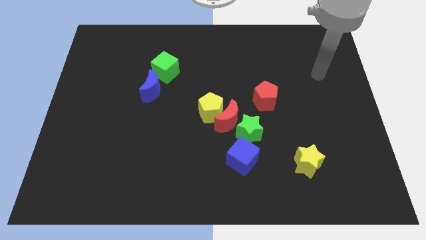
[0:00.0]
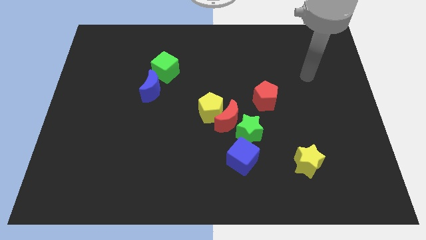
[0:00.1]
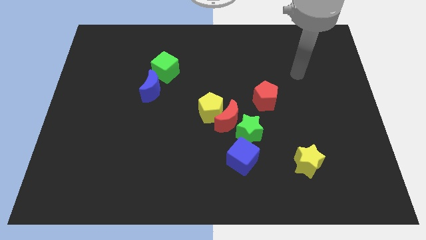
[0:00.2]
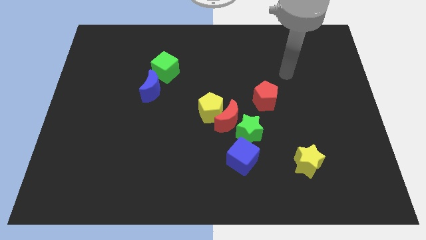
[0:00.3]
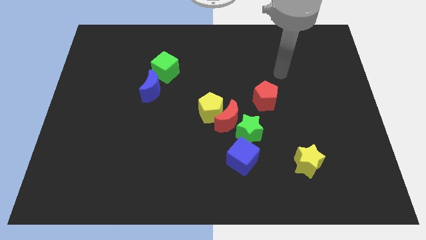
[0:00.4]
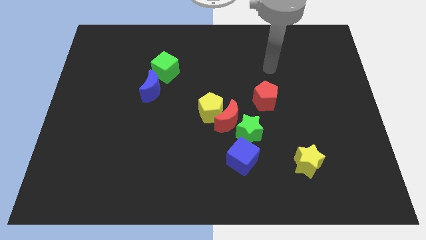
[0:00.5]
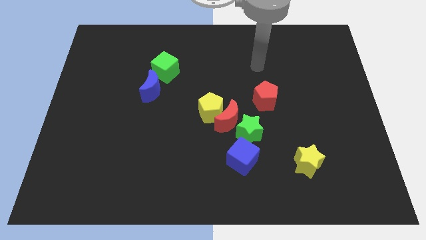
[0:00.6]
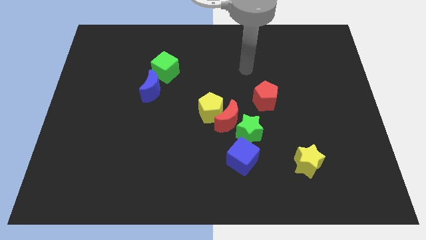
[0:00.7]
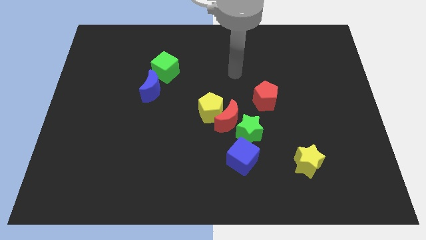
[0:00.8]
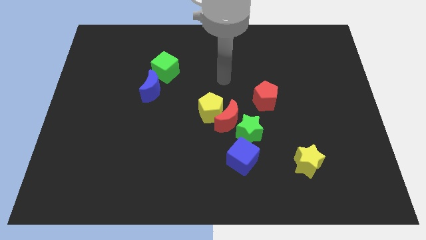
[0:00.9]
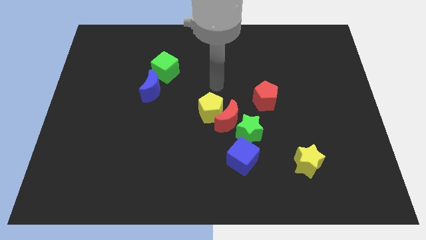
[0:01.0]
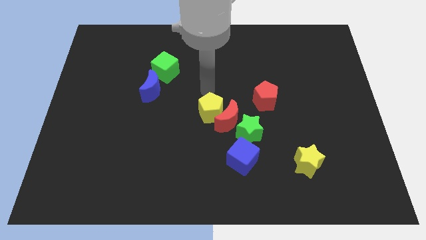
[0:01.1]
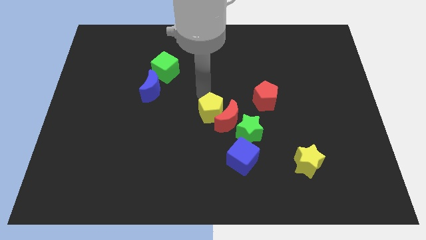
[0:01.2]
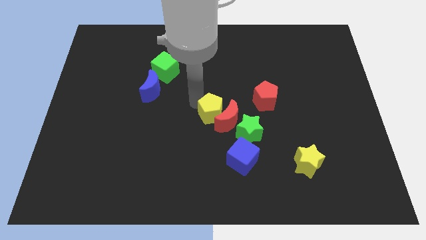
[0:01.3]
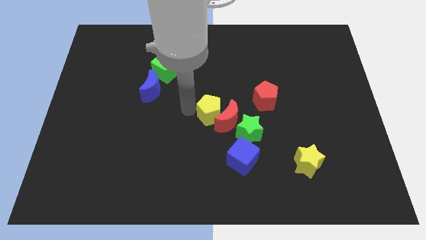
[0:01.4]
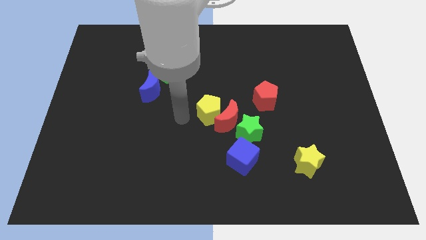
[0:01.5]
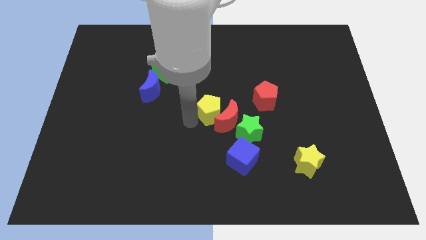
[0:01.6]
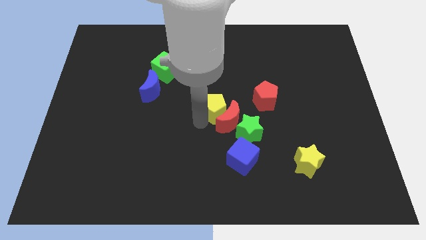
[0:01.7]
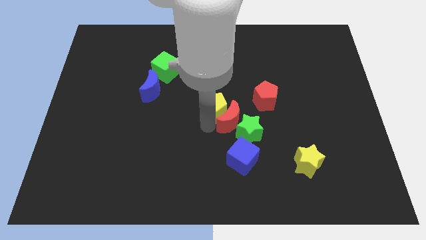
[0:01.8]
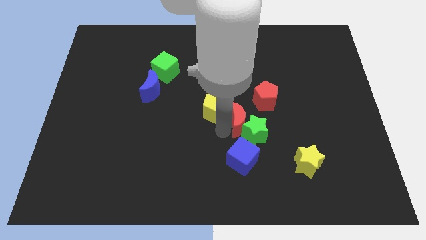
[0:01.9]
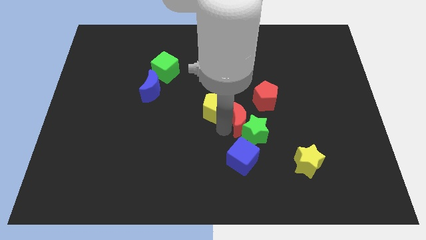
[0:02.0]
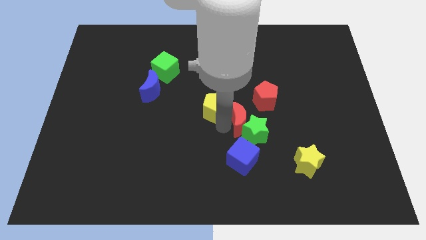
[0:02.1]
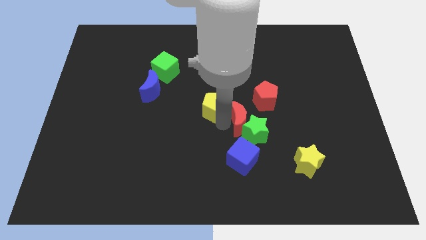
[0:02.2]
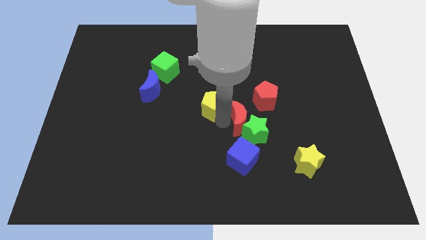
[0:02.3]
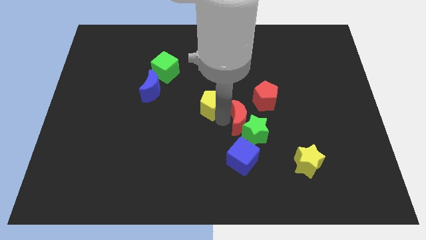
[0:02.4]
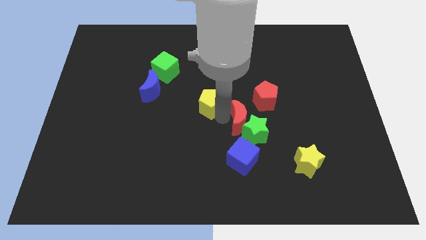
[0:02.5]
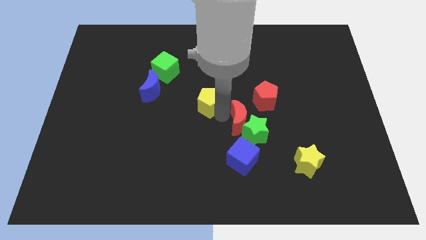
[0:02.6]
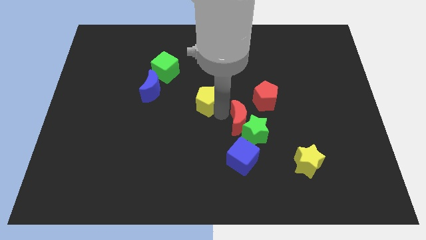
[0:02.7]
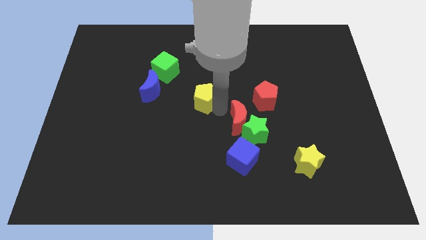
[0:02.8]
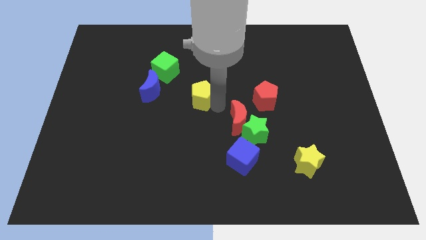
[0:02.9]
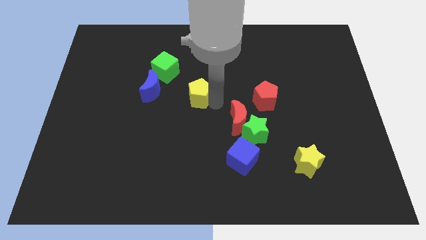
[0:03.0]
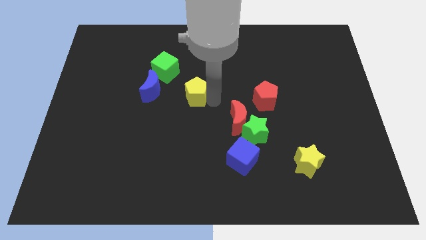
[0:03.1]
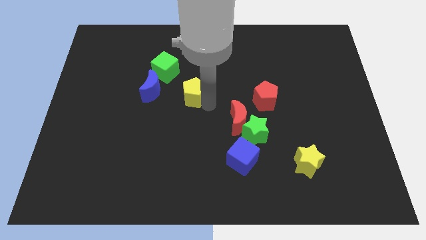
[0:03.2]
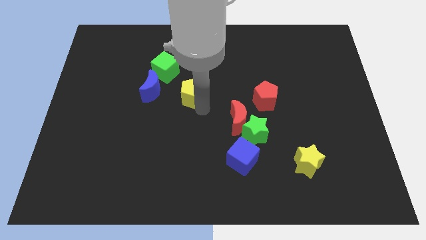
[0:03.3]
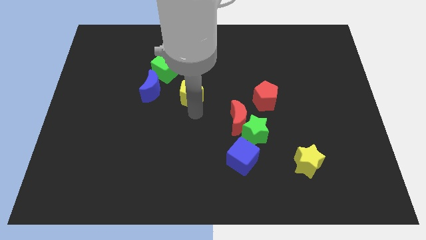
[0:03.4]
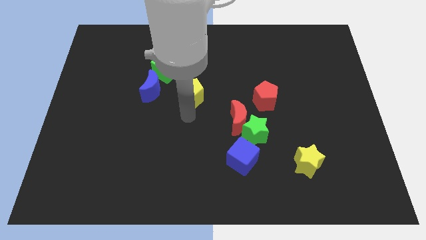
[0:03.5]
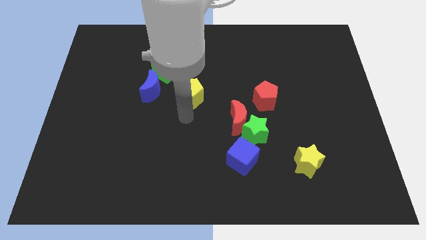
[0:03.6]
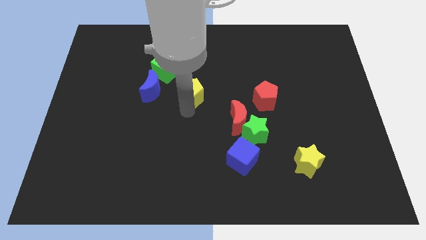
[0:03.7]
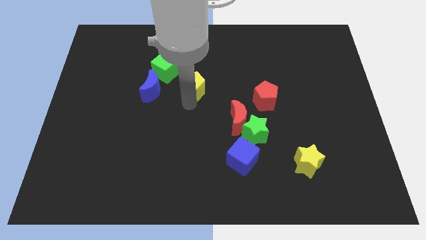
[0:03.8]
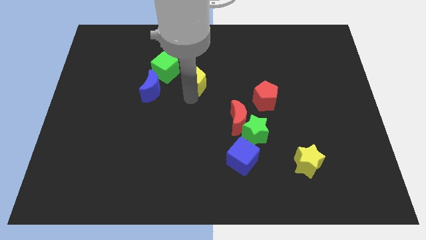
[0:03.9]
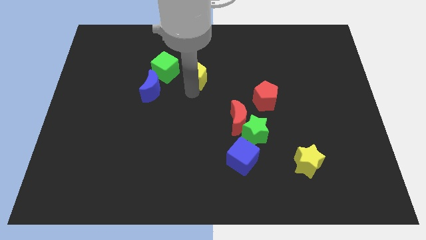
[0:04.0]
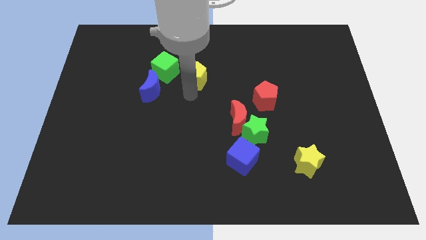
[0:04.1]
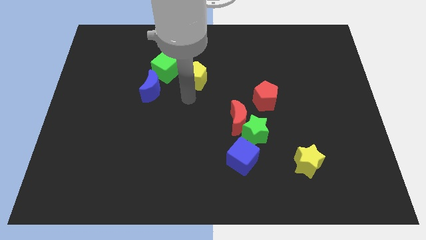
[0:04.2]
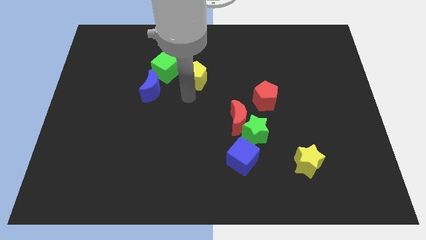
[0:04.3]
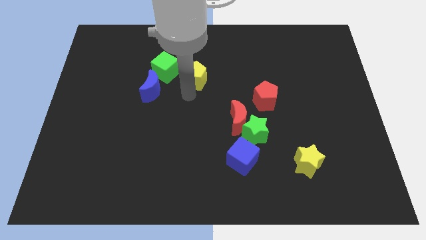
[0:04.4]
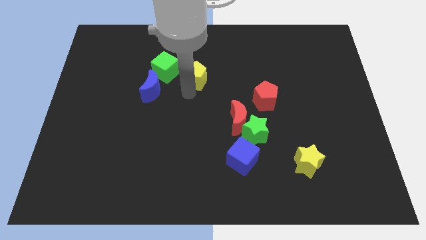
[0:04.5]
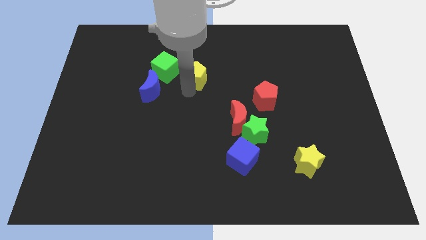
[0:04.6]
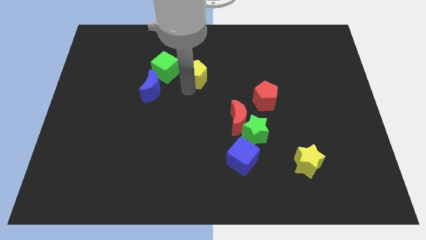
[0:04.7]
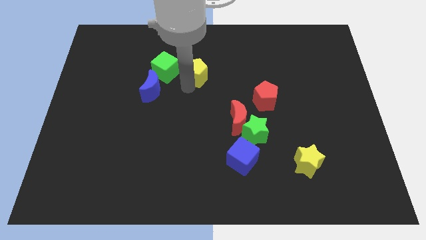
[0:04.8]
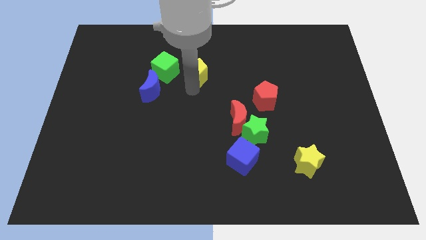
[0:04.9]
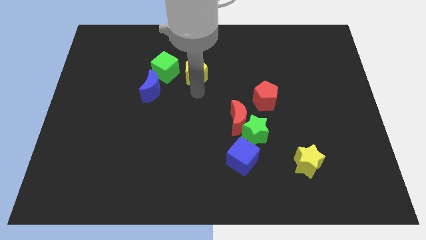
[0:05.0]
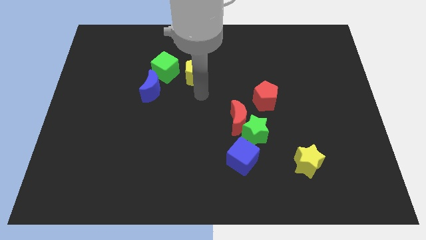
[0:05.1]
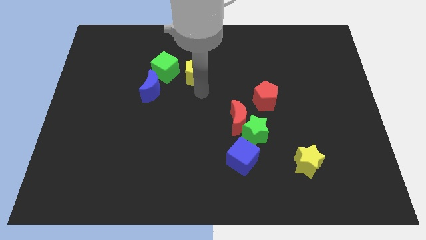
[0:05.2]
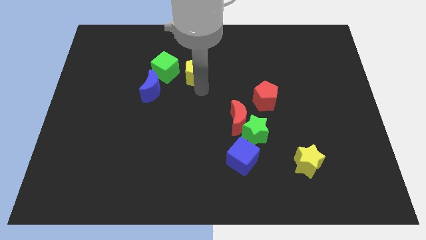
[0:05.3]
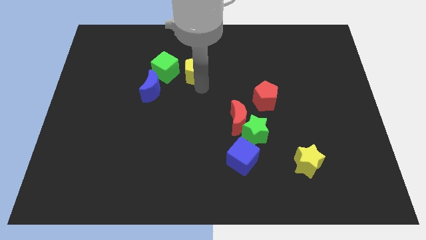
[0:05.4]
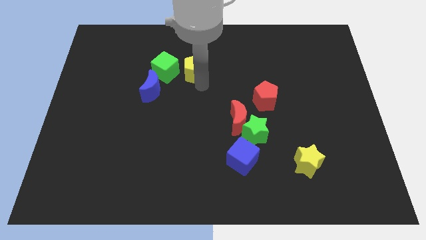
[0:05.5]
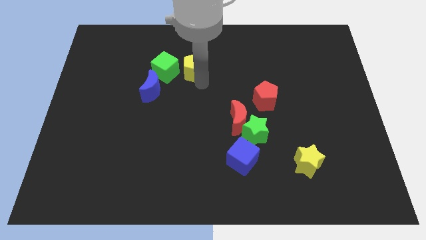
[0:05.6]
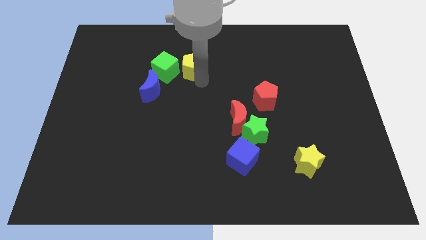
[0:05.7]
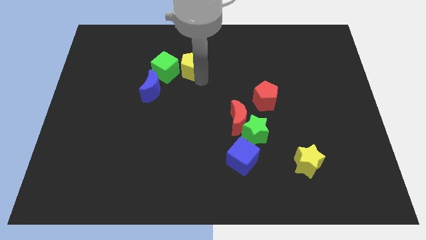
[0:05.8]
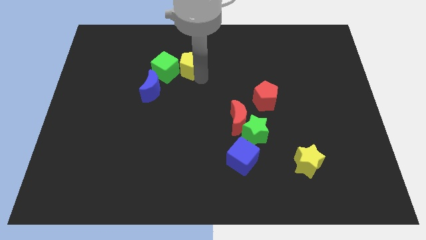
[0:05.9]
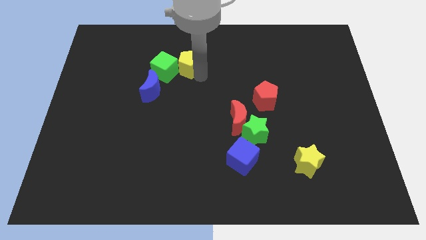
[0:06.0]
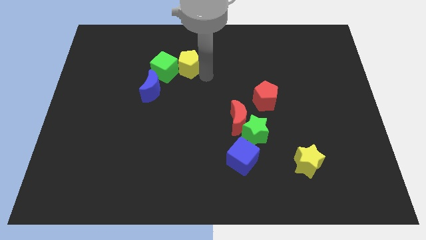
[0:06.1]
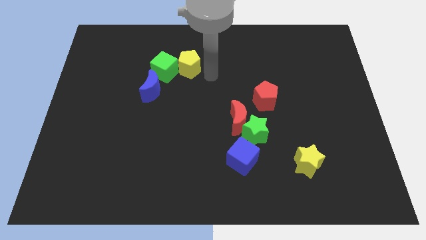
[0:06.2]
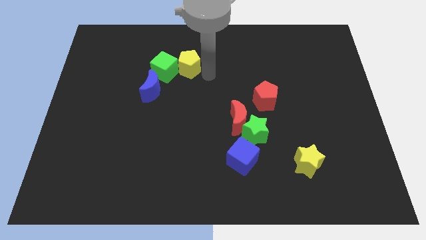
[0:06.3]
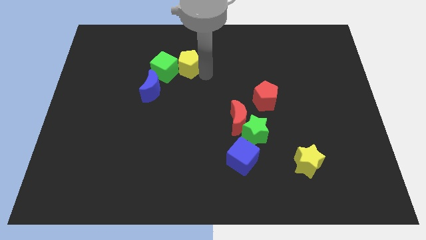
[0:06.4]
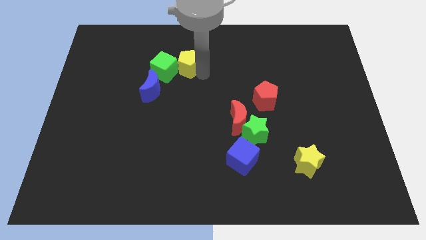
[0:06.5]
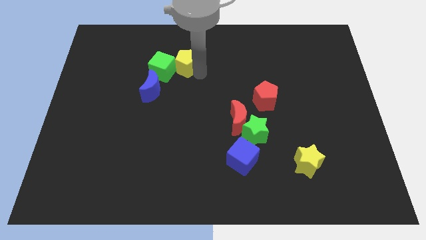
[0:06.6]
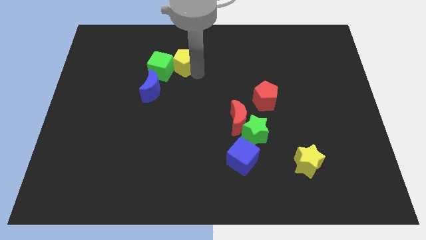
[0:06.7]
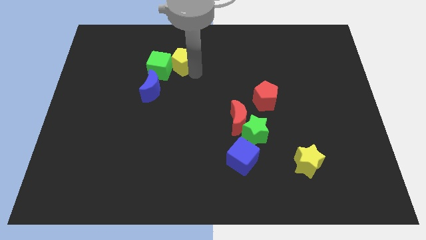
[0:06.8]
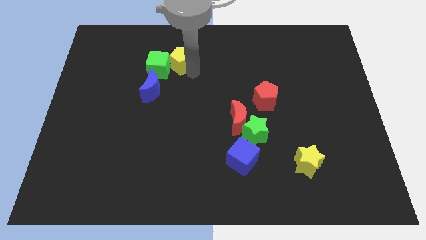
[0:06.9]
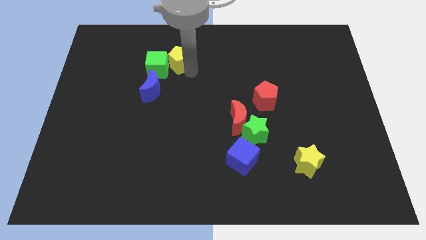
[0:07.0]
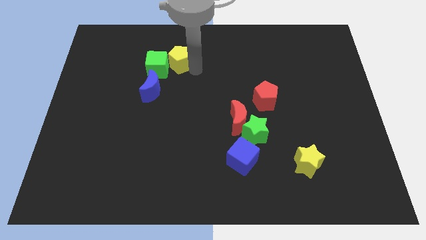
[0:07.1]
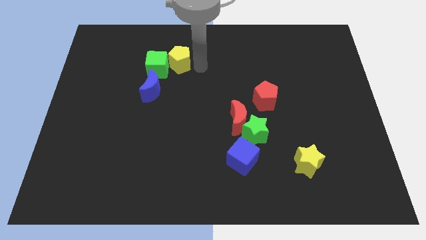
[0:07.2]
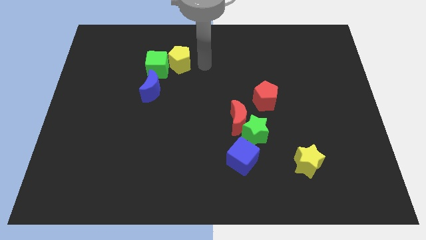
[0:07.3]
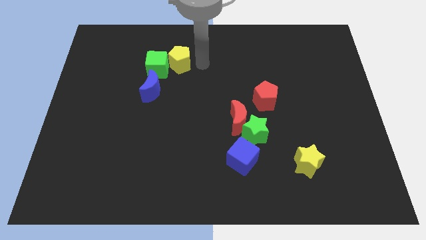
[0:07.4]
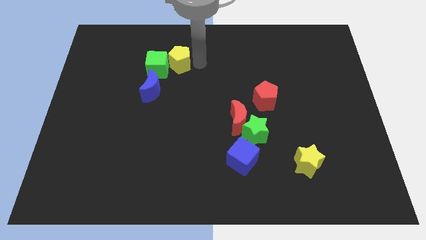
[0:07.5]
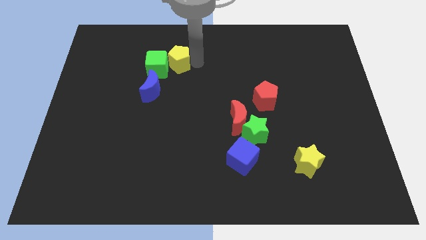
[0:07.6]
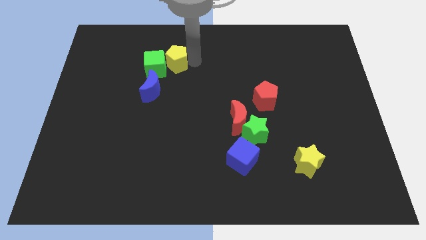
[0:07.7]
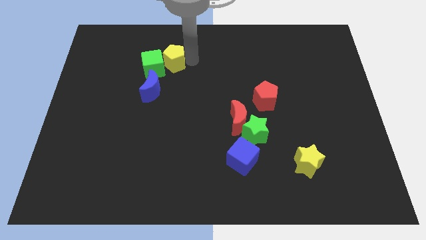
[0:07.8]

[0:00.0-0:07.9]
move the yellow pentagon to the top of the blue moon
